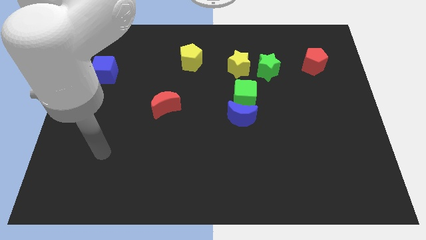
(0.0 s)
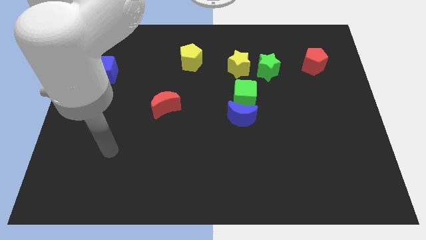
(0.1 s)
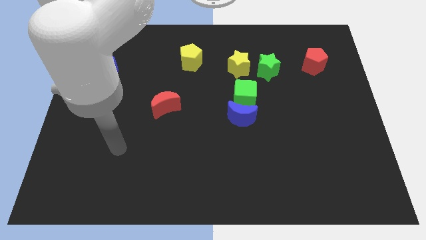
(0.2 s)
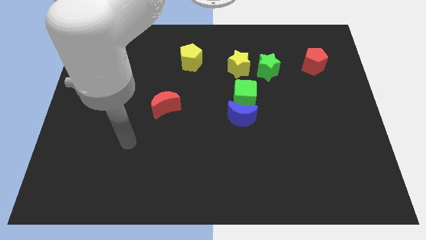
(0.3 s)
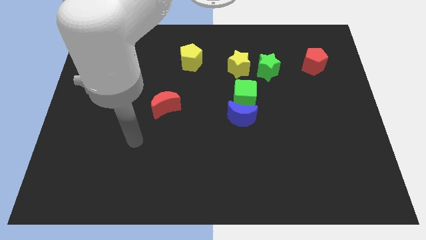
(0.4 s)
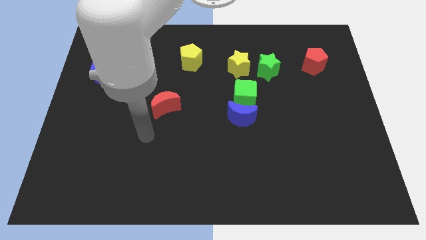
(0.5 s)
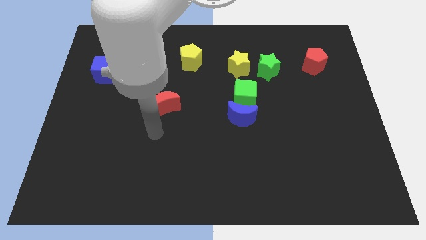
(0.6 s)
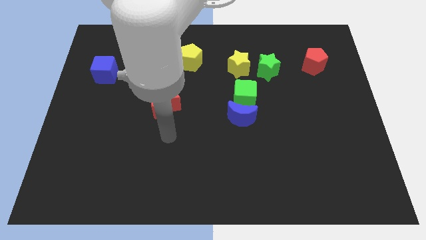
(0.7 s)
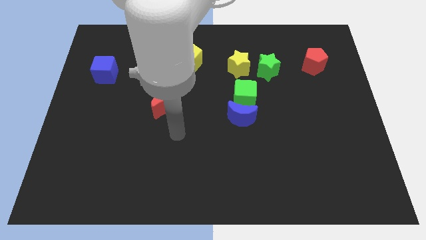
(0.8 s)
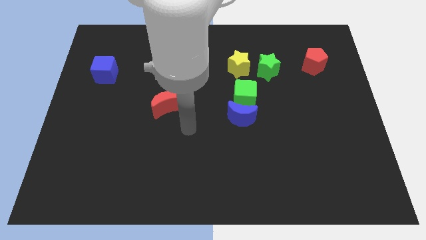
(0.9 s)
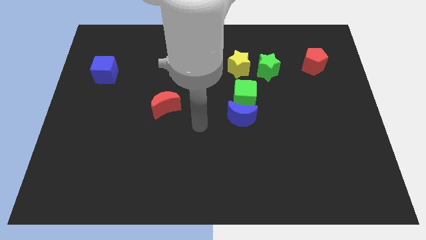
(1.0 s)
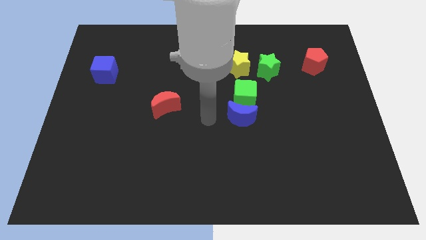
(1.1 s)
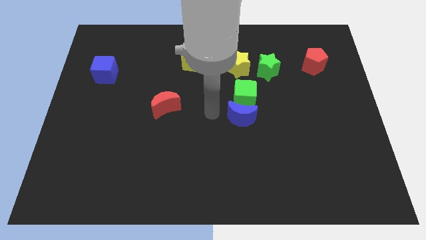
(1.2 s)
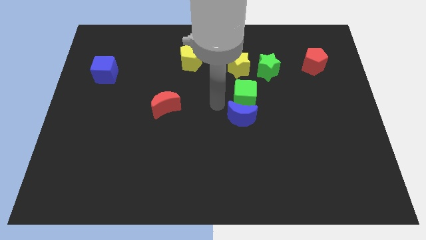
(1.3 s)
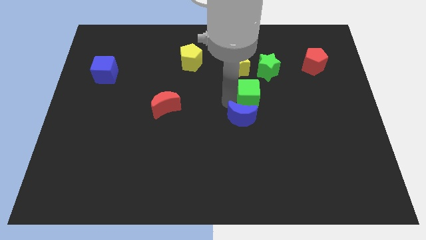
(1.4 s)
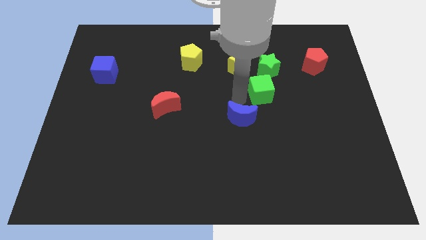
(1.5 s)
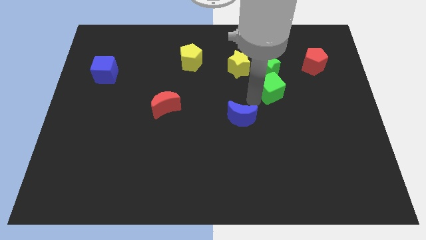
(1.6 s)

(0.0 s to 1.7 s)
move the blue moon away from the green cube

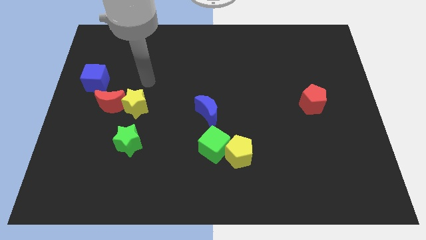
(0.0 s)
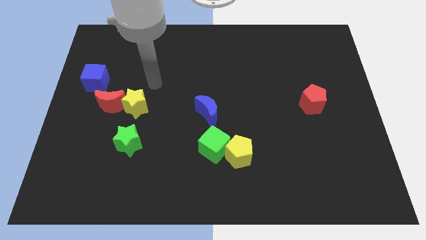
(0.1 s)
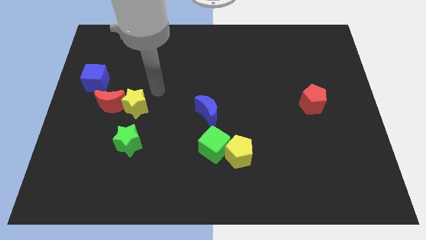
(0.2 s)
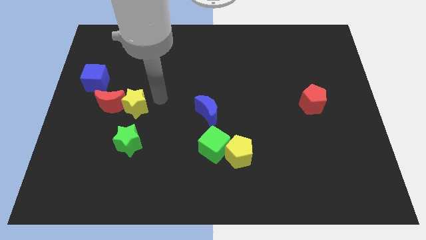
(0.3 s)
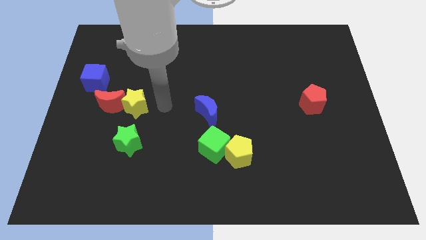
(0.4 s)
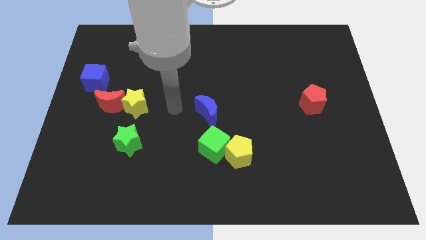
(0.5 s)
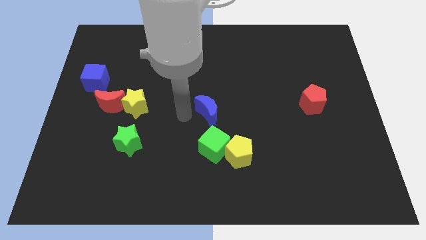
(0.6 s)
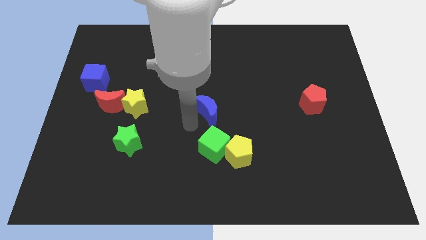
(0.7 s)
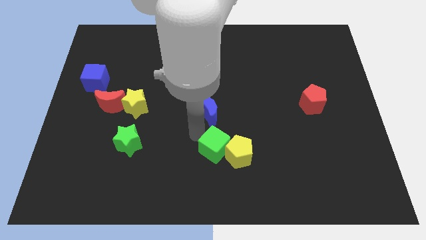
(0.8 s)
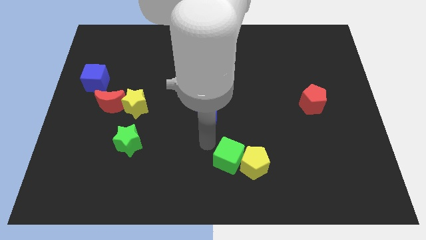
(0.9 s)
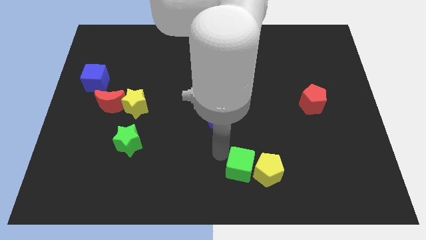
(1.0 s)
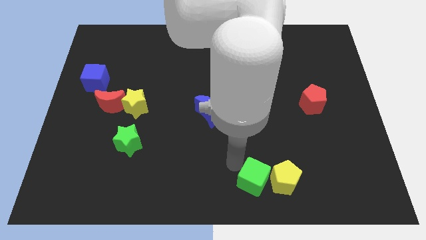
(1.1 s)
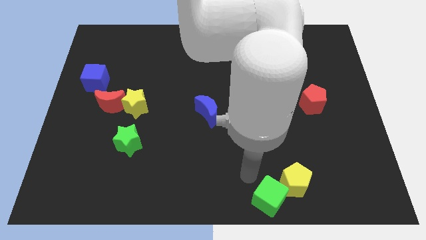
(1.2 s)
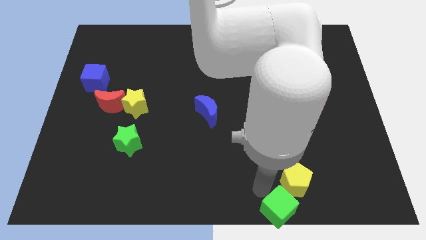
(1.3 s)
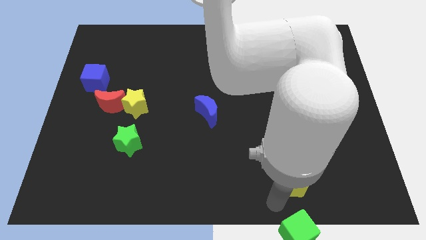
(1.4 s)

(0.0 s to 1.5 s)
move the yellow pentagon away from the green cube

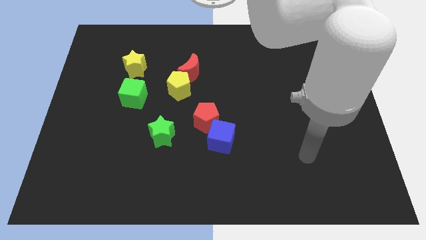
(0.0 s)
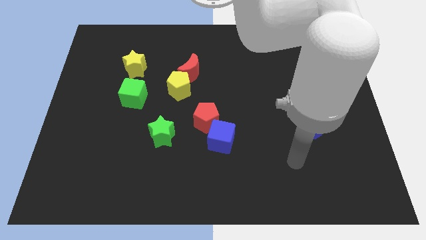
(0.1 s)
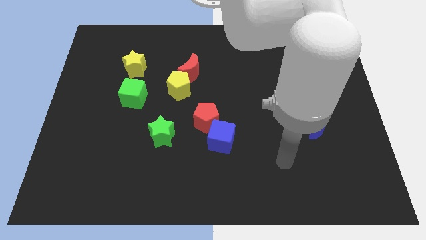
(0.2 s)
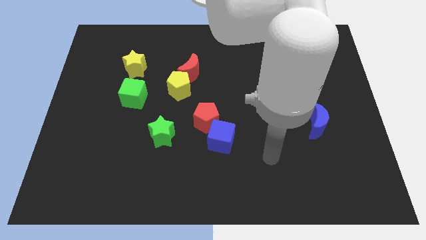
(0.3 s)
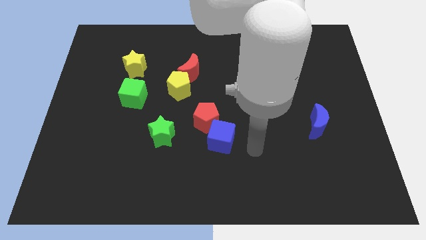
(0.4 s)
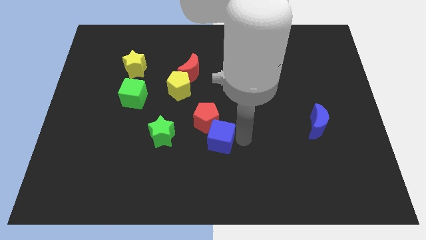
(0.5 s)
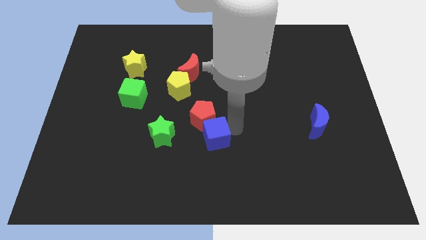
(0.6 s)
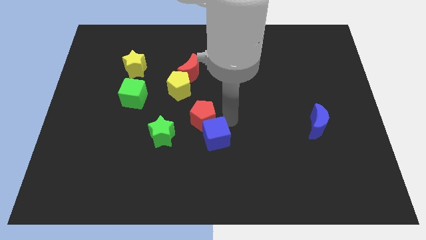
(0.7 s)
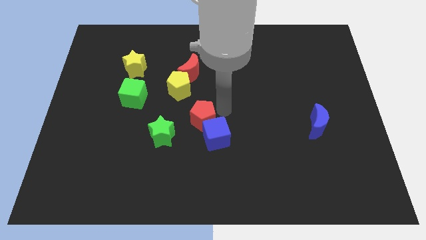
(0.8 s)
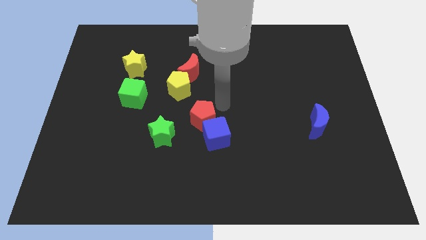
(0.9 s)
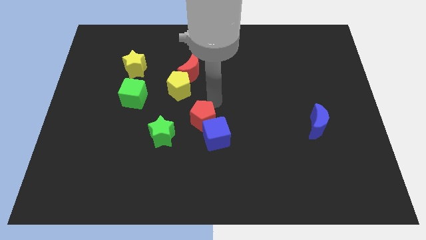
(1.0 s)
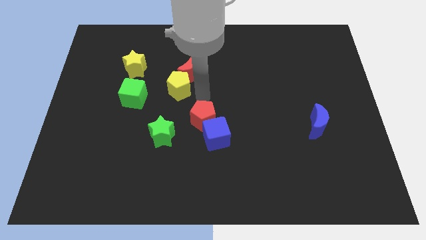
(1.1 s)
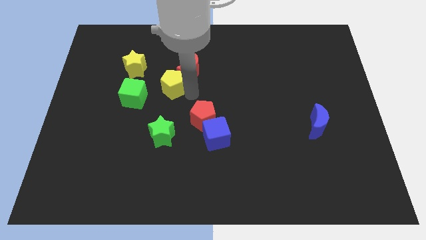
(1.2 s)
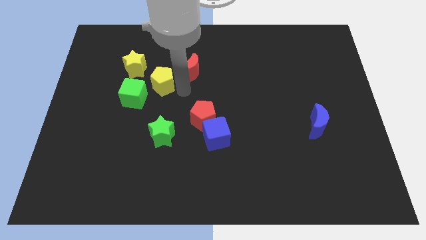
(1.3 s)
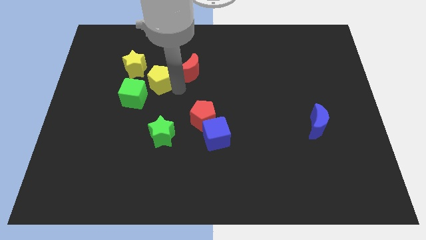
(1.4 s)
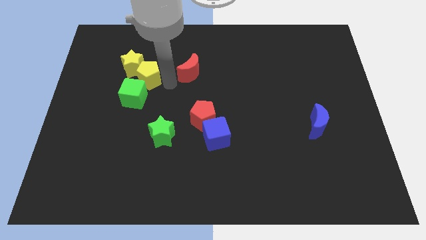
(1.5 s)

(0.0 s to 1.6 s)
separate the red moon from the yellow pentagon

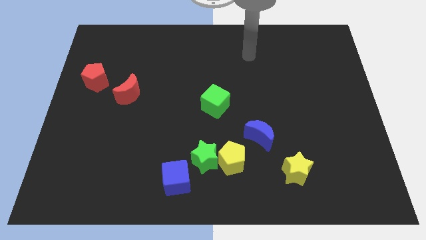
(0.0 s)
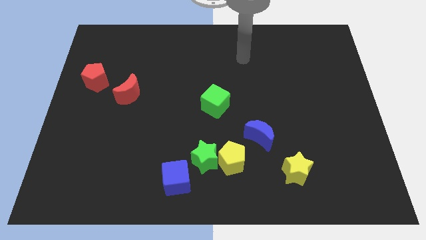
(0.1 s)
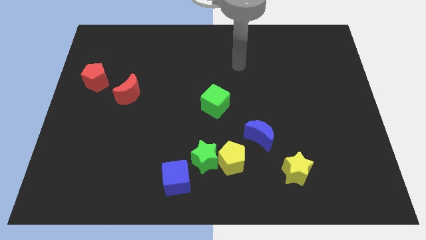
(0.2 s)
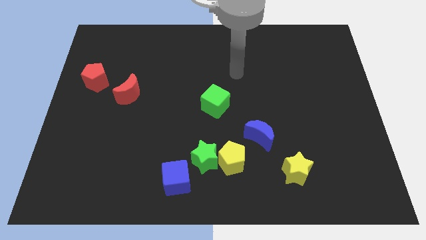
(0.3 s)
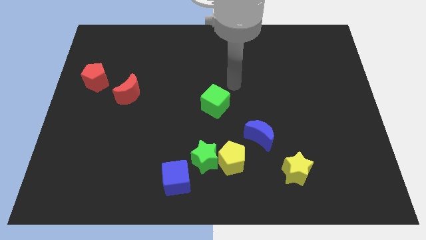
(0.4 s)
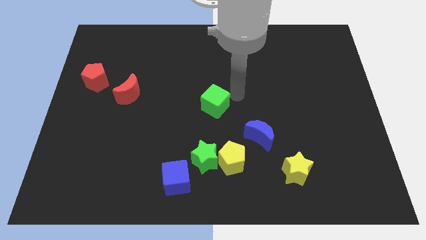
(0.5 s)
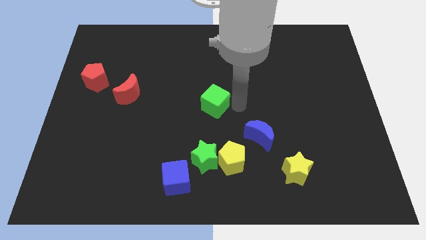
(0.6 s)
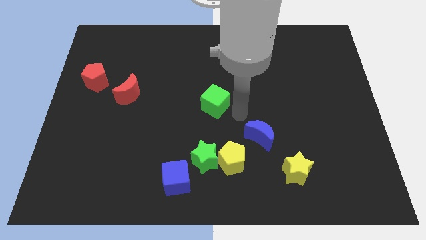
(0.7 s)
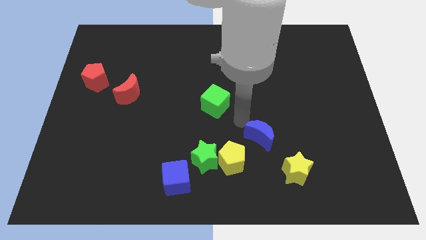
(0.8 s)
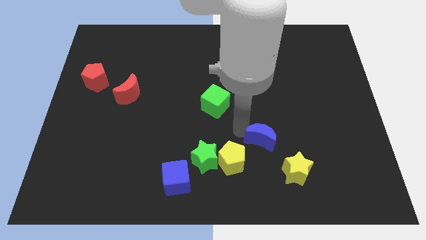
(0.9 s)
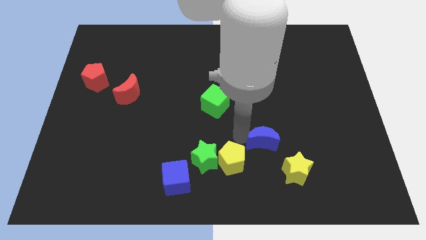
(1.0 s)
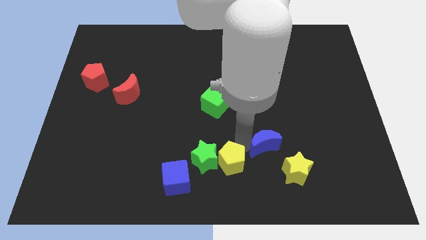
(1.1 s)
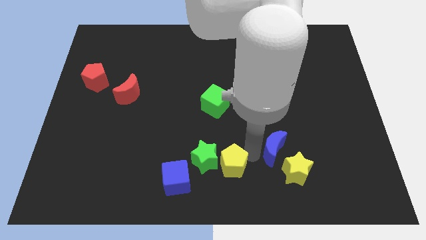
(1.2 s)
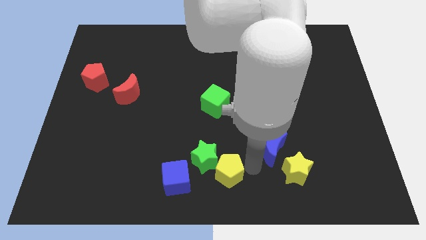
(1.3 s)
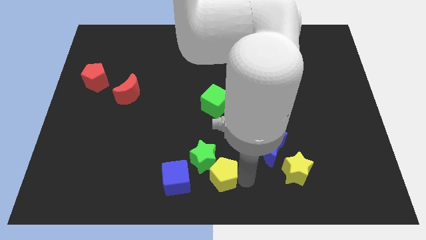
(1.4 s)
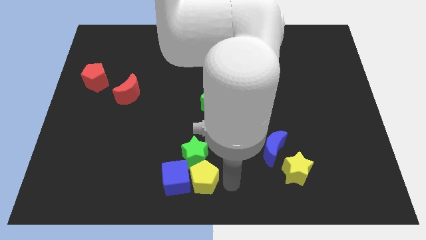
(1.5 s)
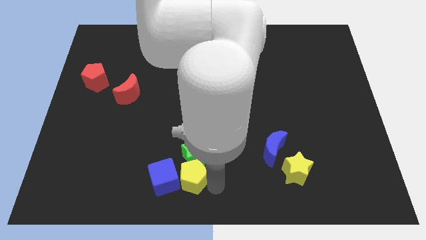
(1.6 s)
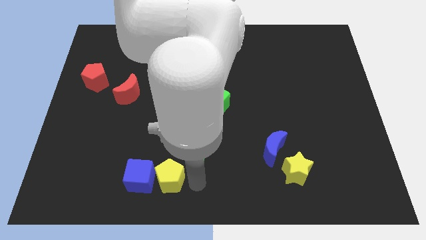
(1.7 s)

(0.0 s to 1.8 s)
pull the green star apart from the yellow pentagon and blue cube

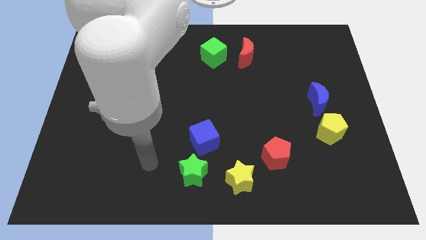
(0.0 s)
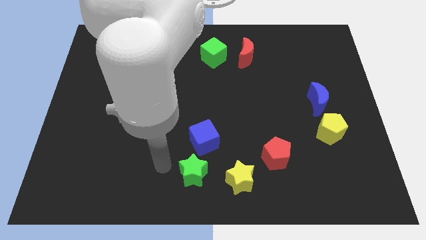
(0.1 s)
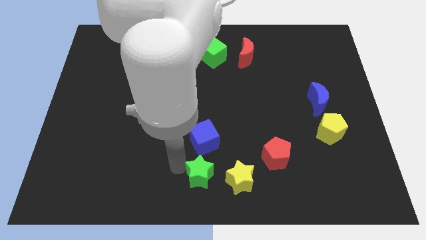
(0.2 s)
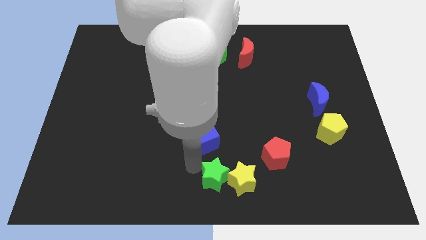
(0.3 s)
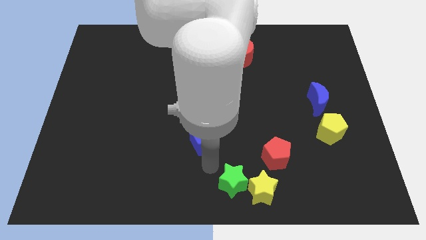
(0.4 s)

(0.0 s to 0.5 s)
pull the blue cube apart from the green star

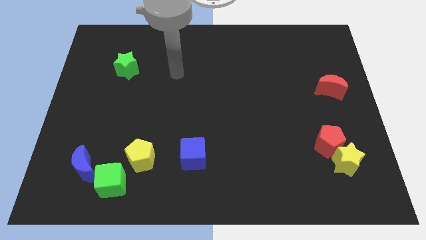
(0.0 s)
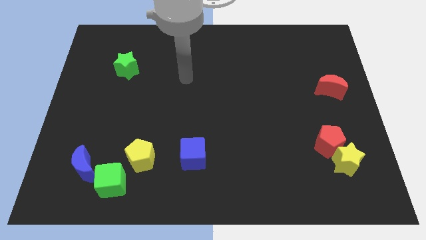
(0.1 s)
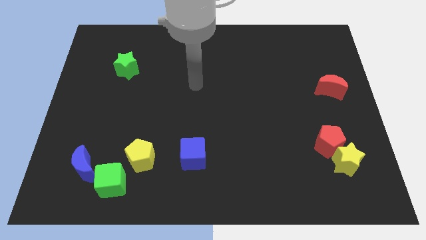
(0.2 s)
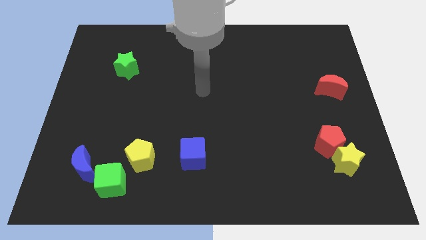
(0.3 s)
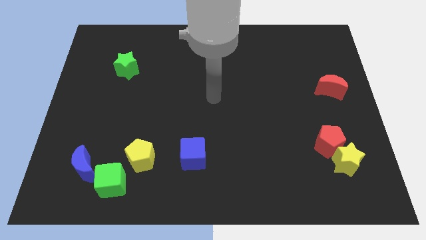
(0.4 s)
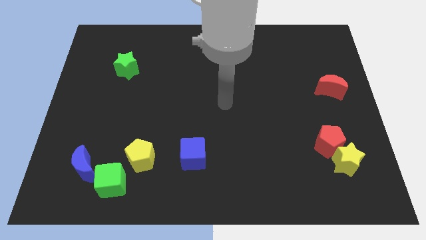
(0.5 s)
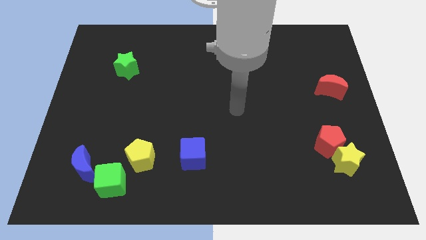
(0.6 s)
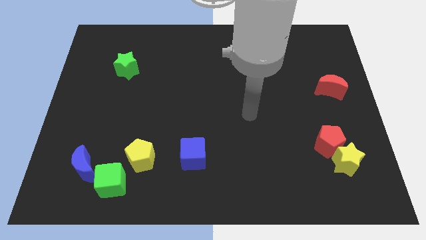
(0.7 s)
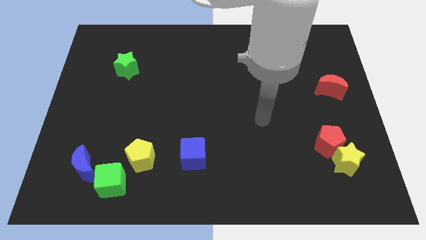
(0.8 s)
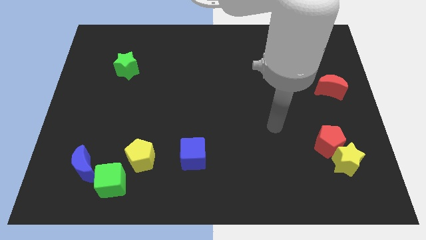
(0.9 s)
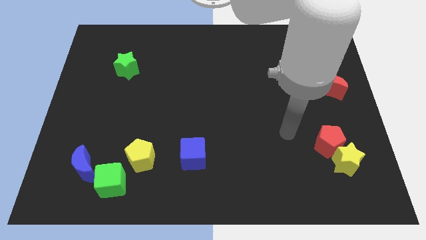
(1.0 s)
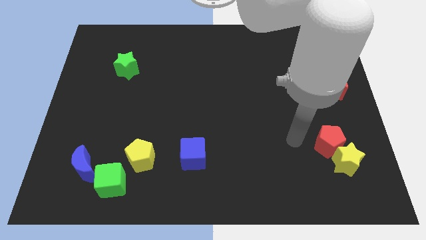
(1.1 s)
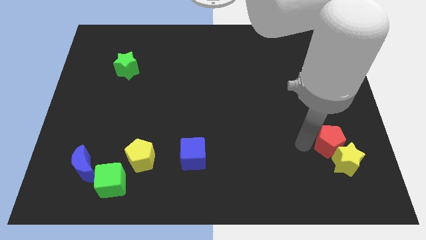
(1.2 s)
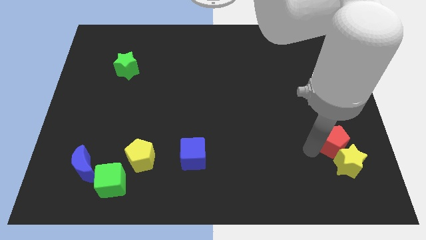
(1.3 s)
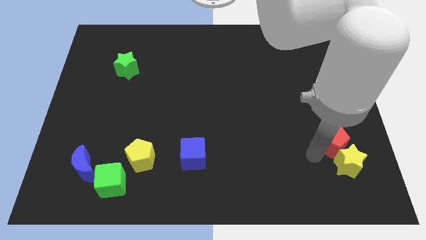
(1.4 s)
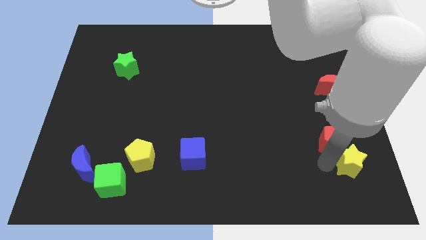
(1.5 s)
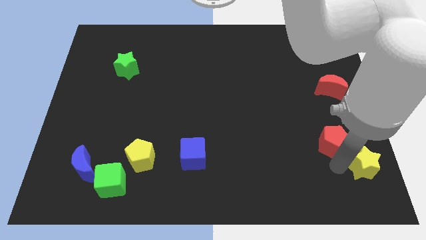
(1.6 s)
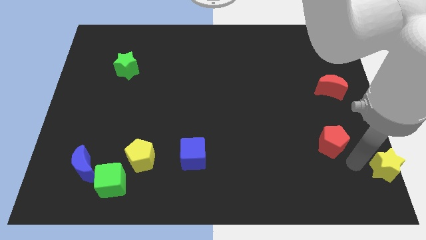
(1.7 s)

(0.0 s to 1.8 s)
move the red pentagon away from the yellow star

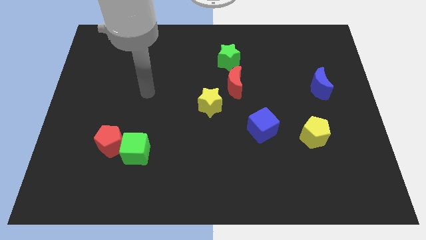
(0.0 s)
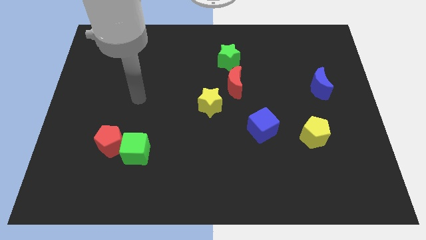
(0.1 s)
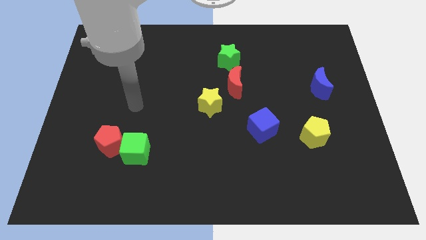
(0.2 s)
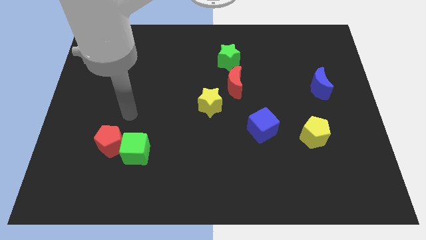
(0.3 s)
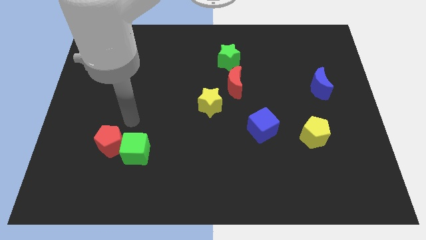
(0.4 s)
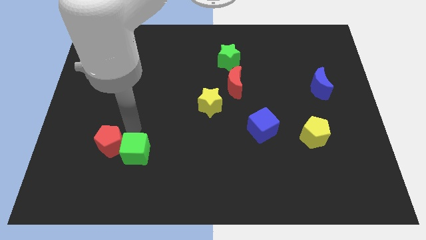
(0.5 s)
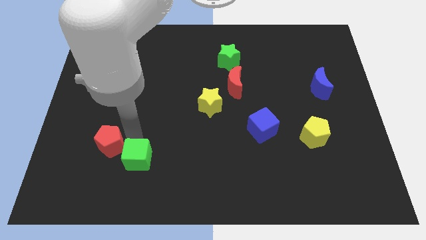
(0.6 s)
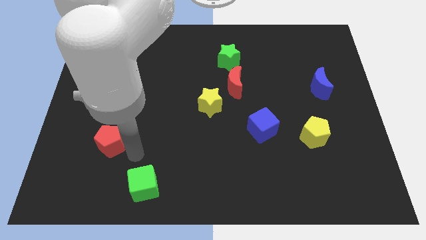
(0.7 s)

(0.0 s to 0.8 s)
move the red pentagon away from the green cube
